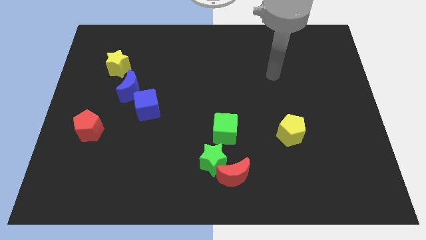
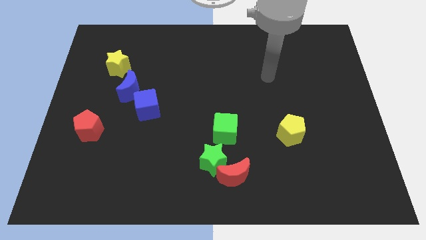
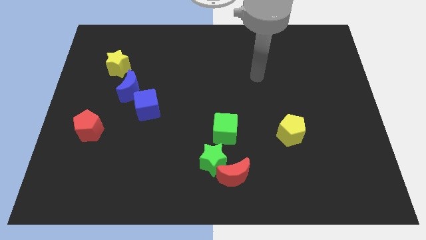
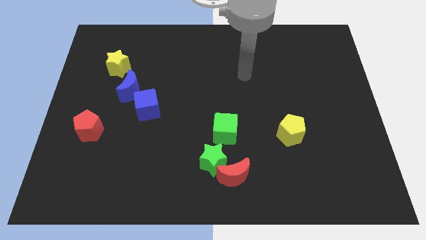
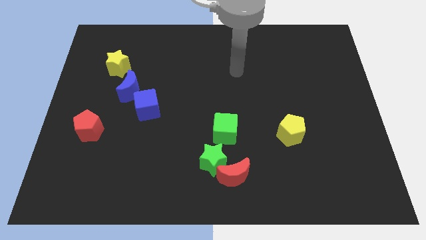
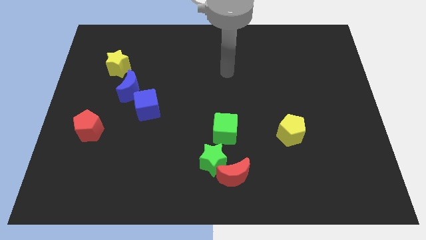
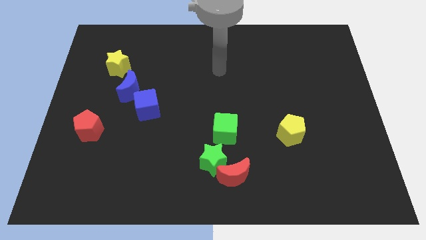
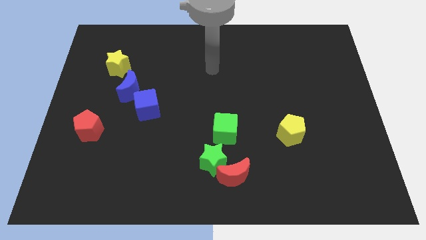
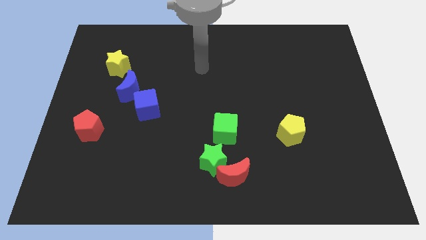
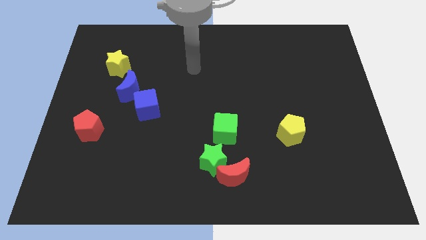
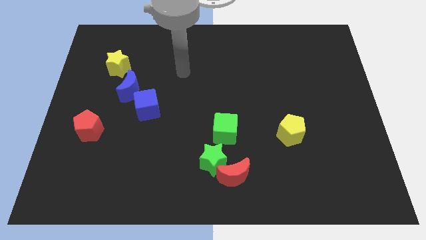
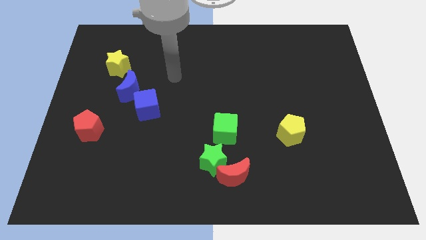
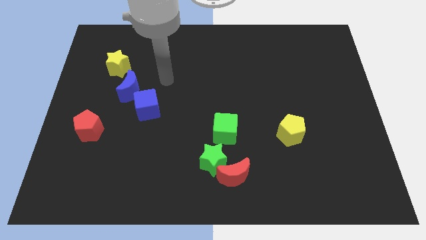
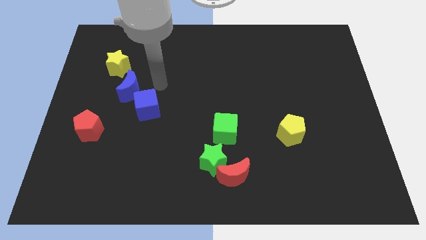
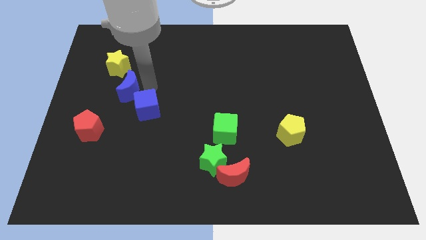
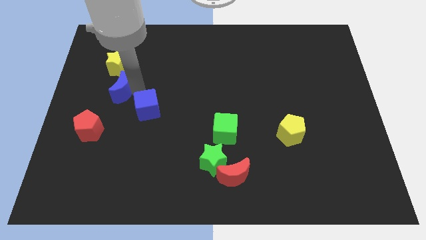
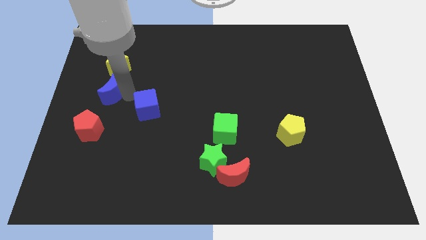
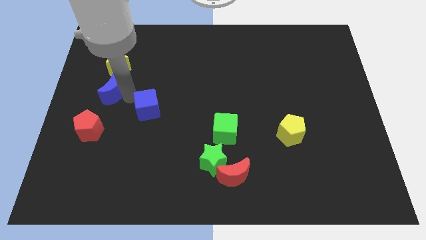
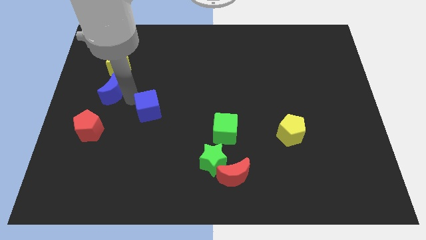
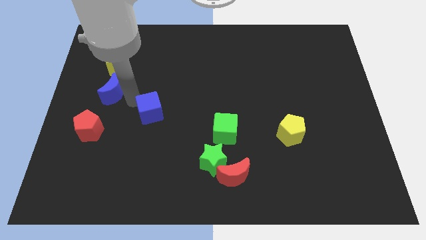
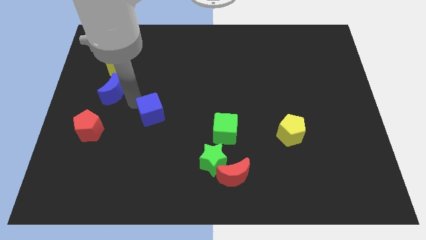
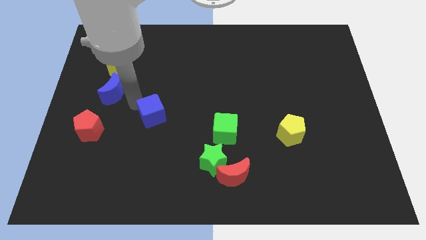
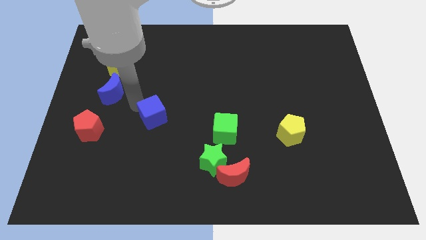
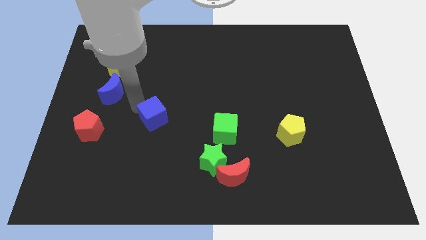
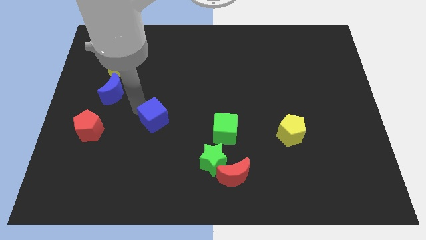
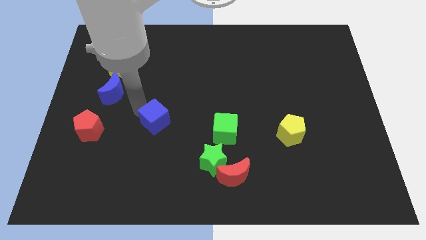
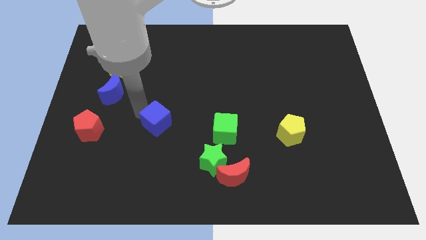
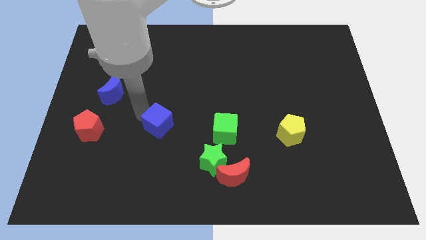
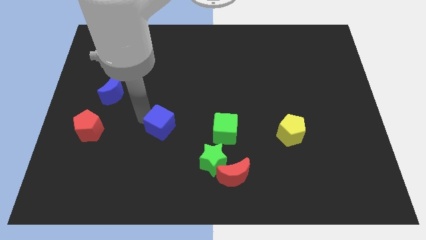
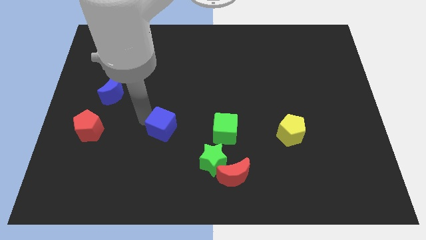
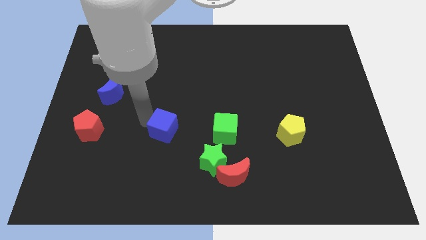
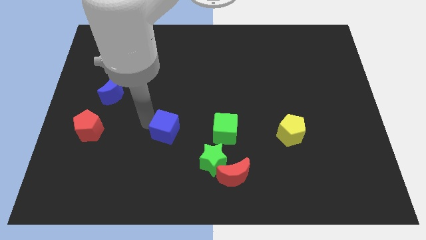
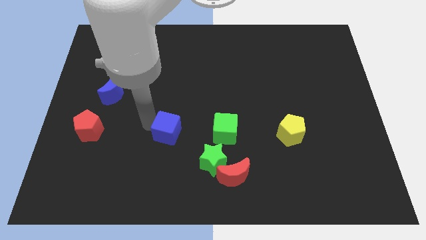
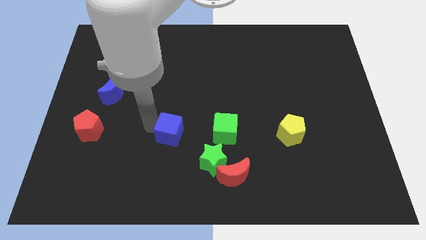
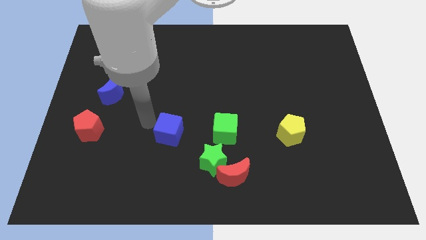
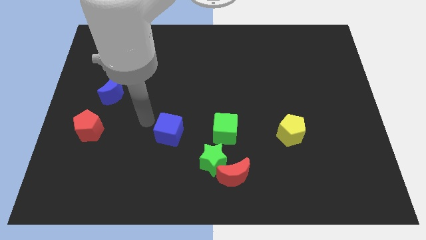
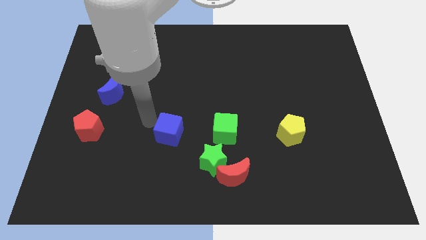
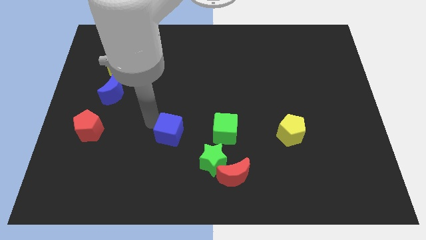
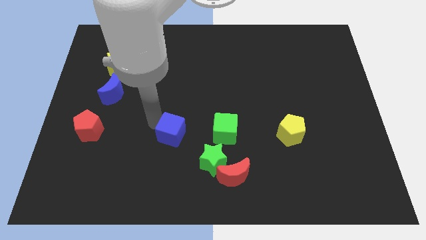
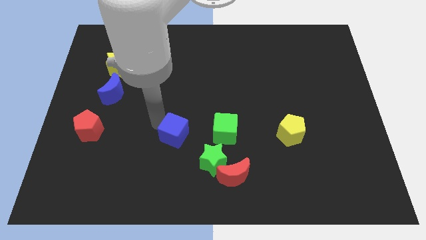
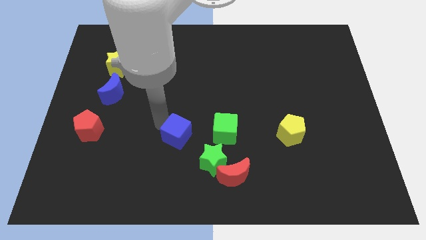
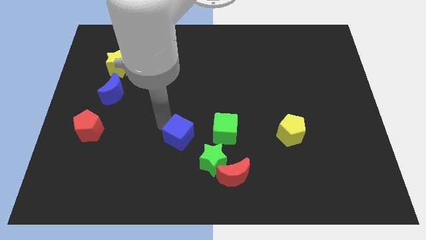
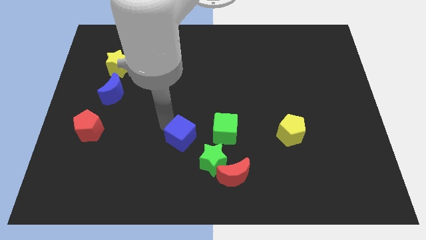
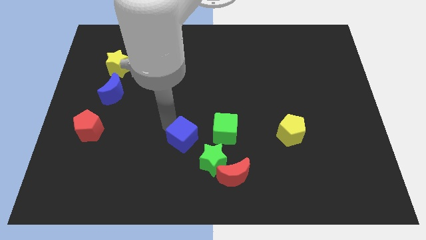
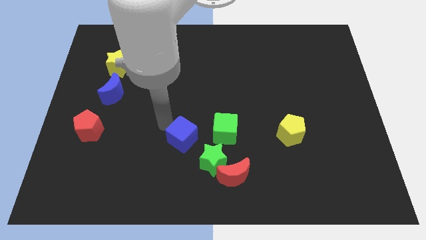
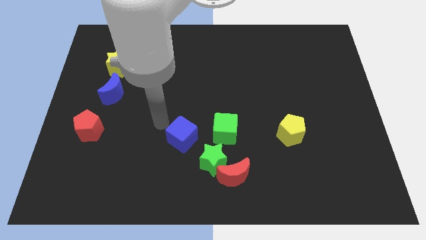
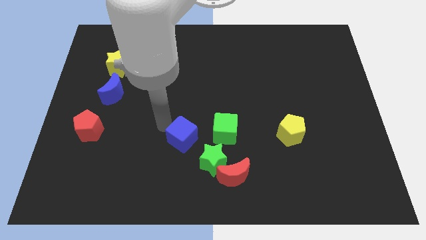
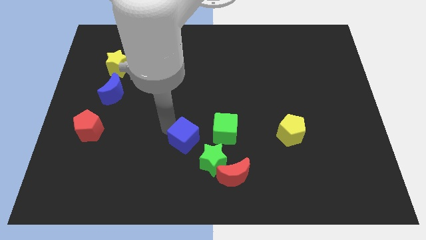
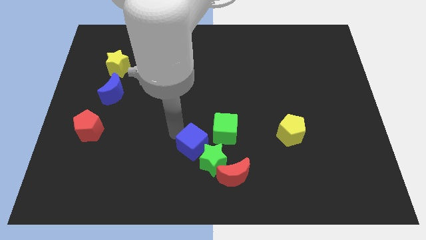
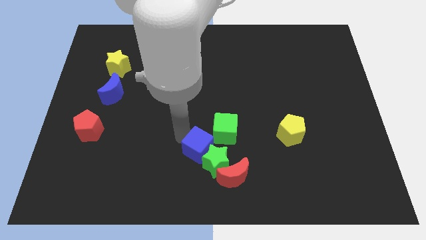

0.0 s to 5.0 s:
put the blue cube close to the green star

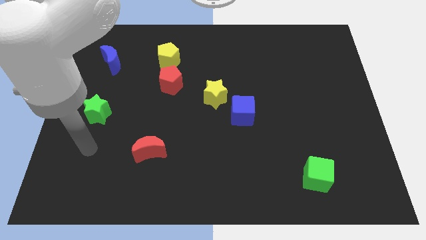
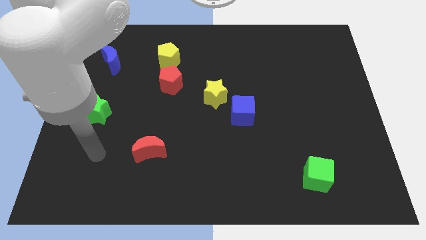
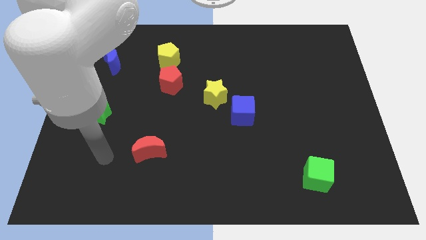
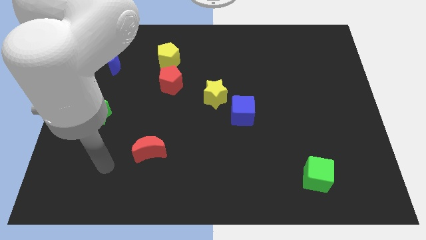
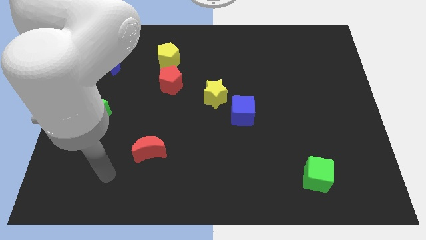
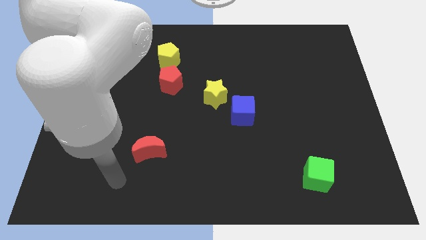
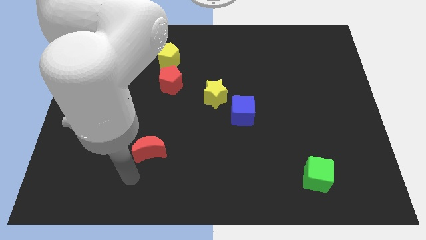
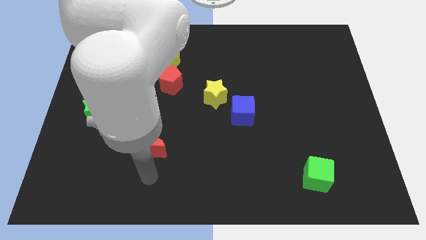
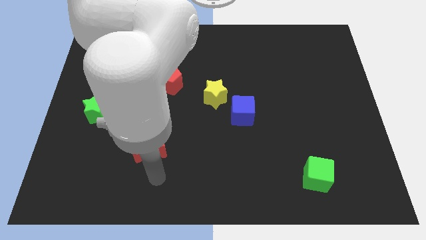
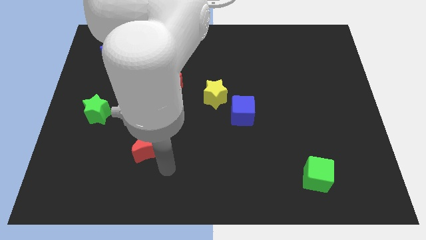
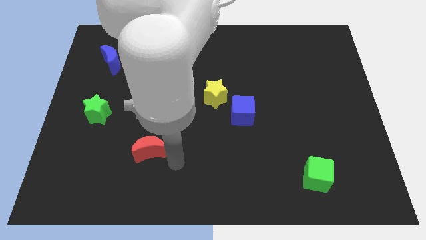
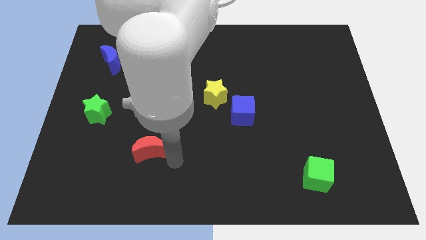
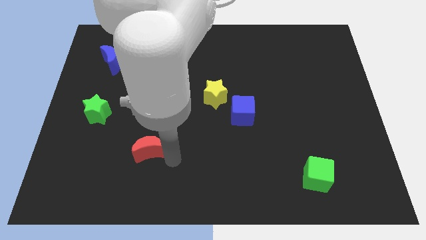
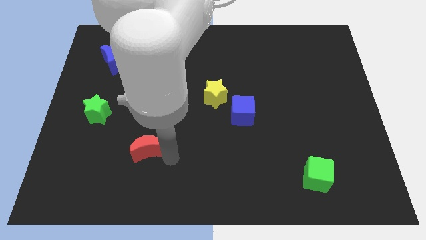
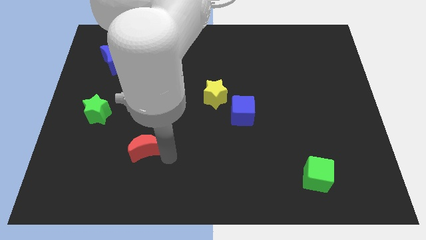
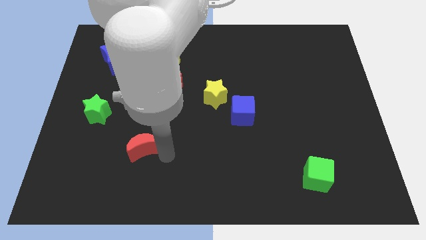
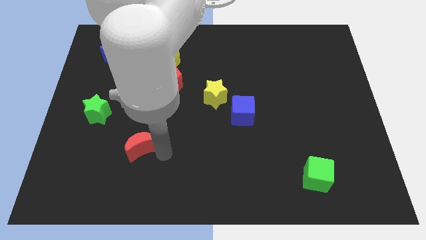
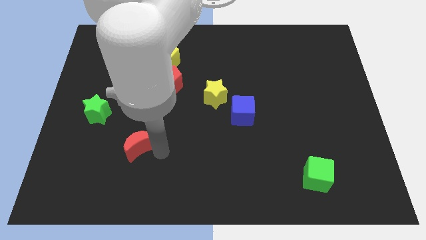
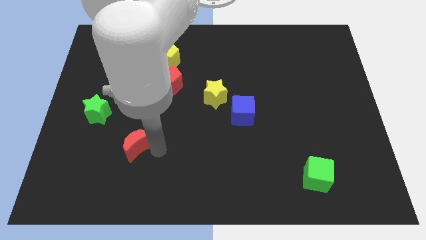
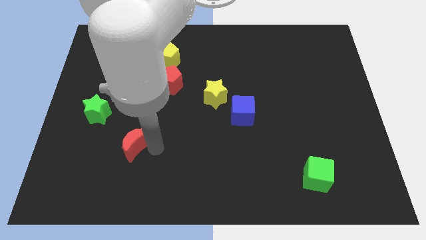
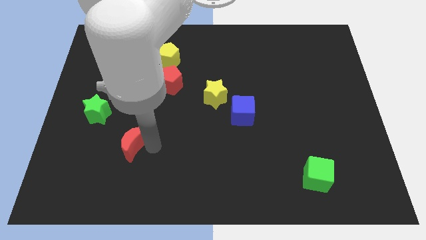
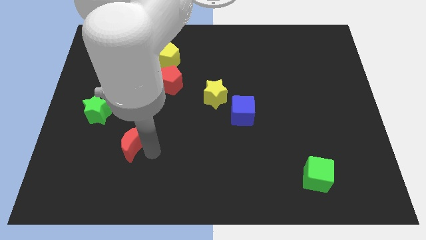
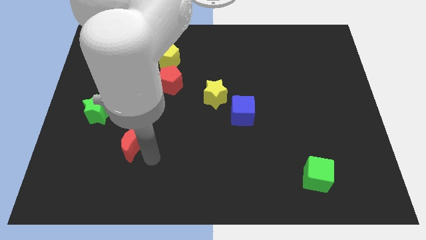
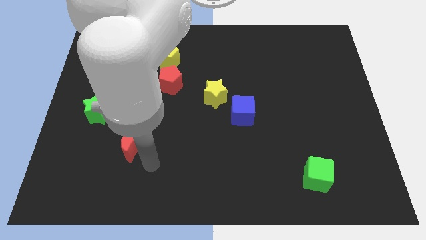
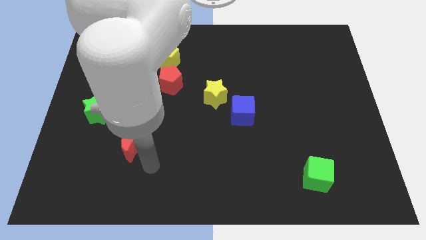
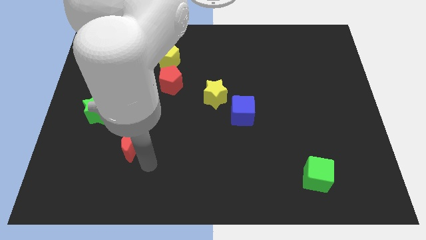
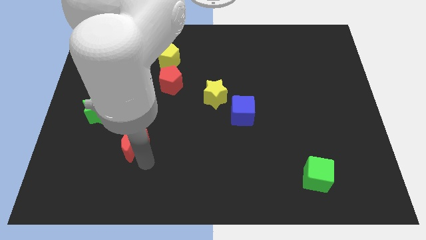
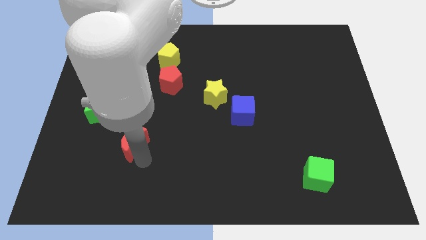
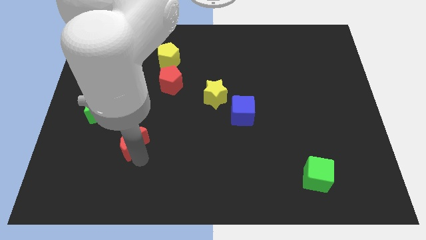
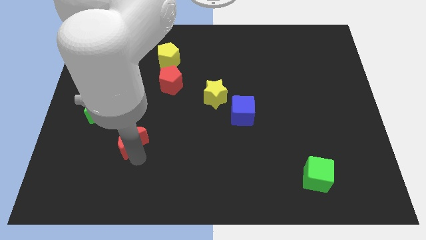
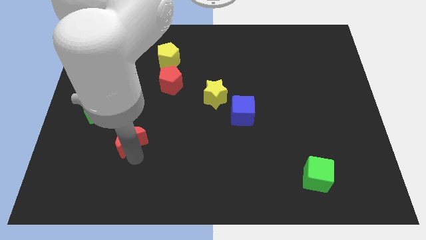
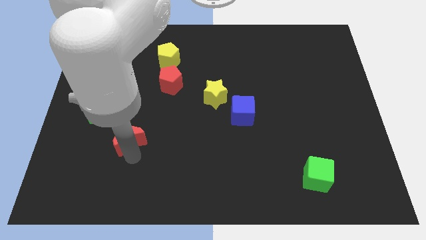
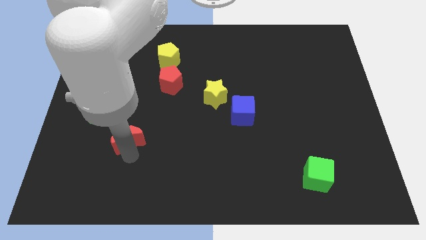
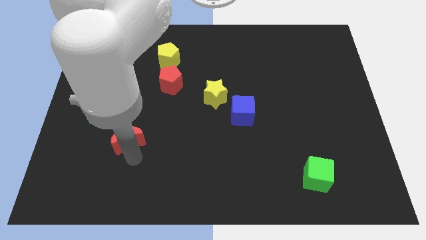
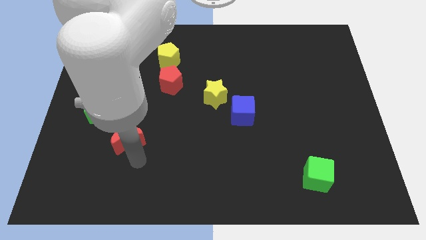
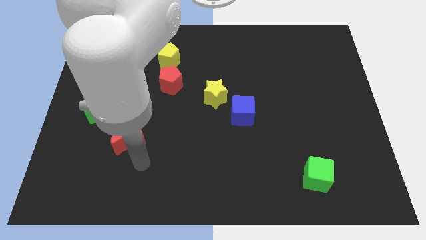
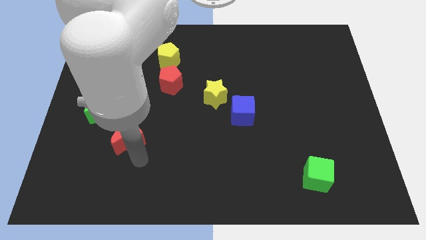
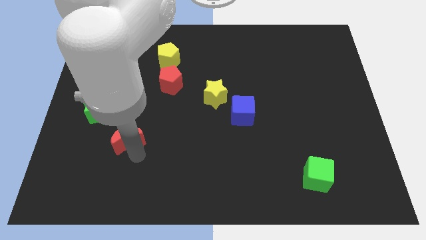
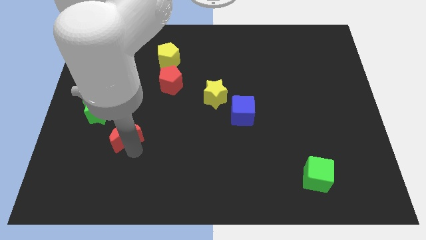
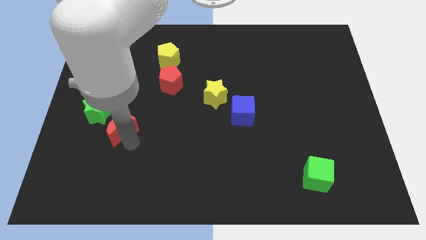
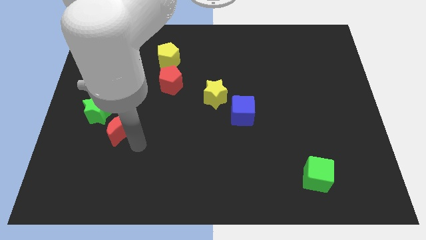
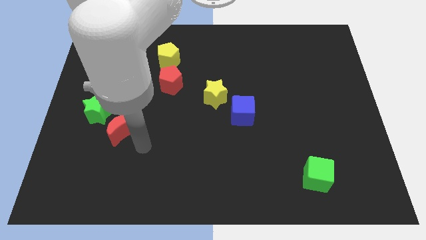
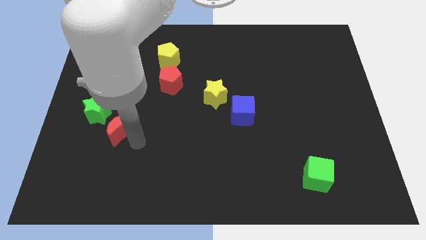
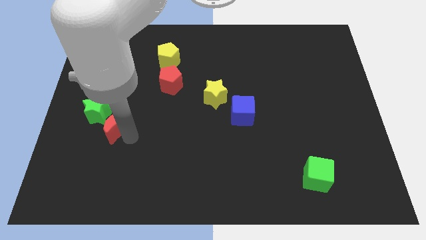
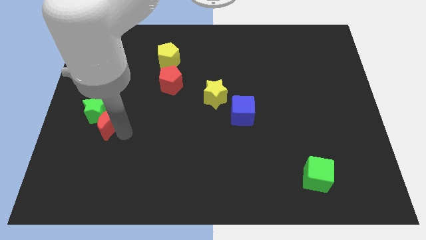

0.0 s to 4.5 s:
put the red moon next to the green star
